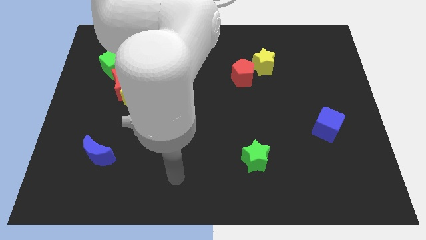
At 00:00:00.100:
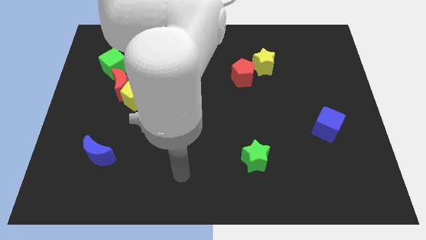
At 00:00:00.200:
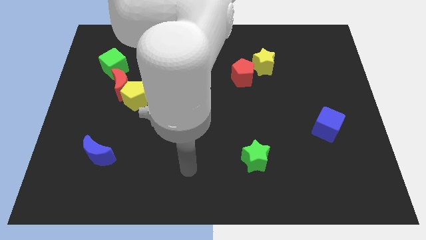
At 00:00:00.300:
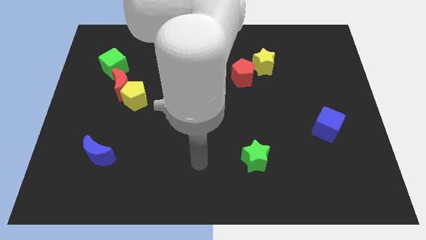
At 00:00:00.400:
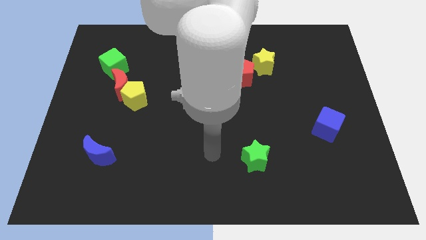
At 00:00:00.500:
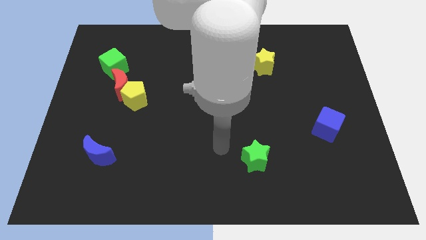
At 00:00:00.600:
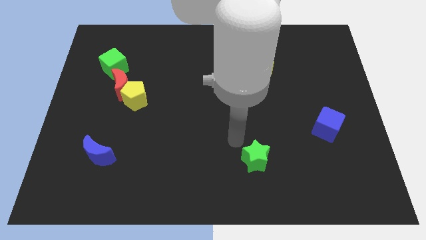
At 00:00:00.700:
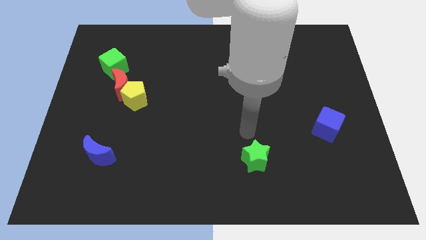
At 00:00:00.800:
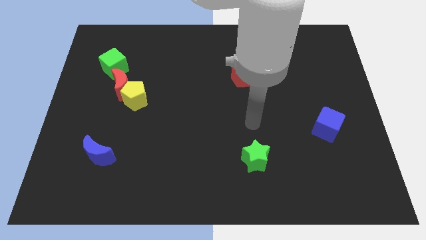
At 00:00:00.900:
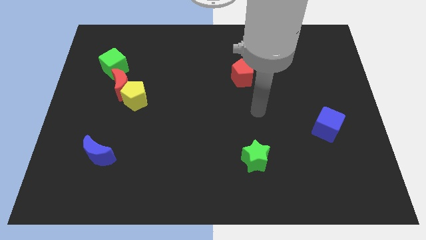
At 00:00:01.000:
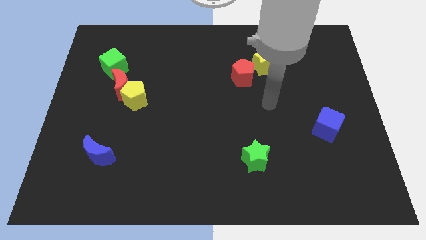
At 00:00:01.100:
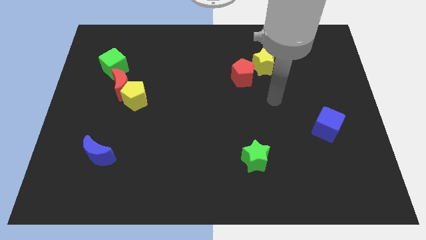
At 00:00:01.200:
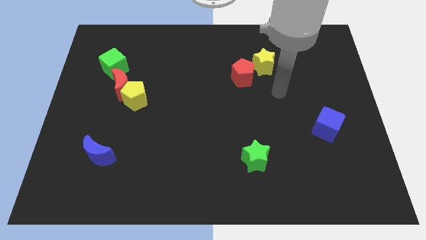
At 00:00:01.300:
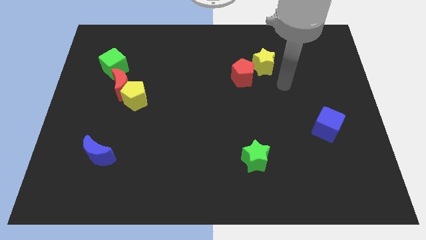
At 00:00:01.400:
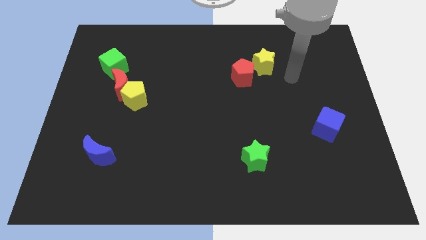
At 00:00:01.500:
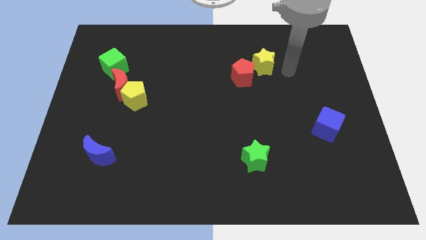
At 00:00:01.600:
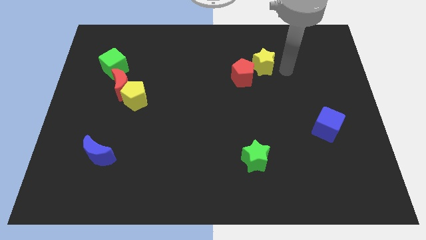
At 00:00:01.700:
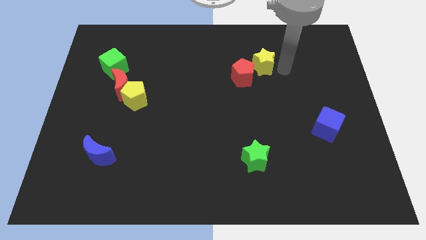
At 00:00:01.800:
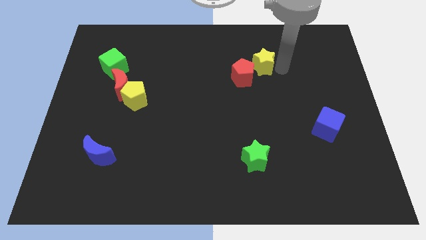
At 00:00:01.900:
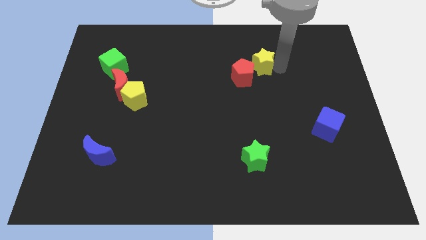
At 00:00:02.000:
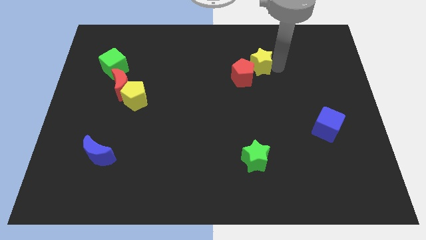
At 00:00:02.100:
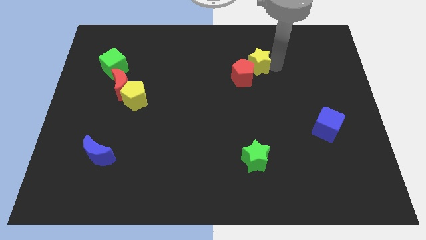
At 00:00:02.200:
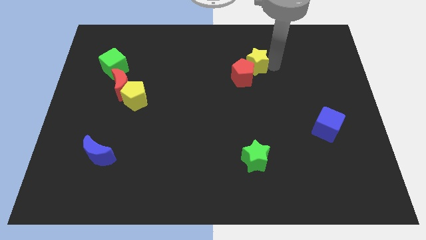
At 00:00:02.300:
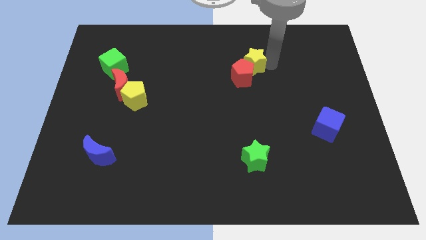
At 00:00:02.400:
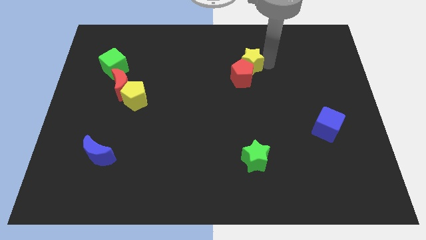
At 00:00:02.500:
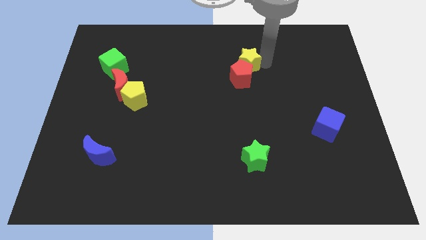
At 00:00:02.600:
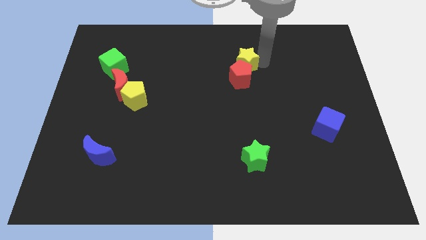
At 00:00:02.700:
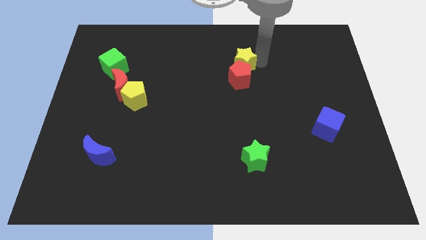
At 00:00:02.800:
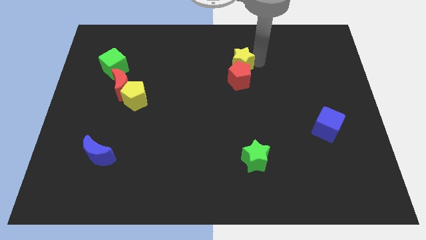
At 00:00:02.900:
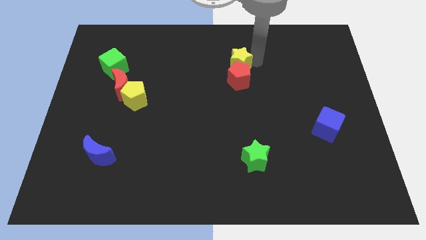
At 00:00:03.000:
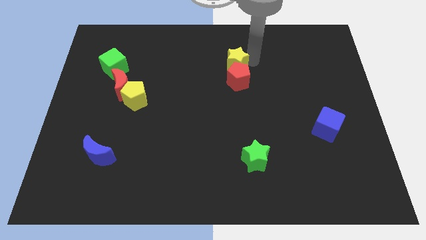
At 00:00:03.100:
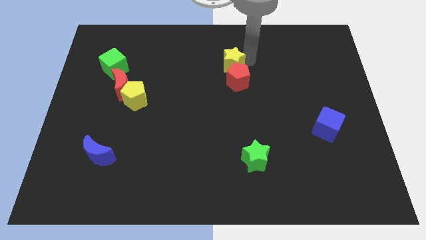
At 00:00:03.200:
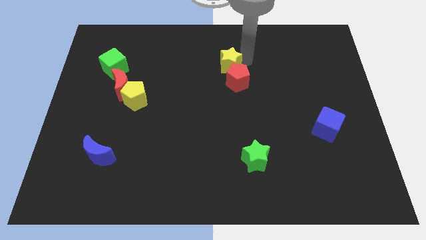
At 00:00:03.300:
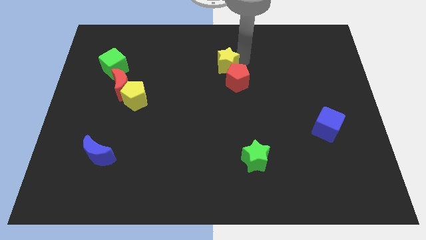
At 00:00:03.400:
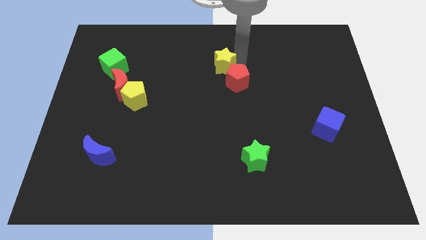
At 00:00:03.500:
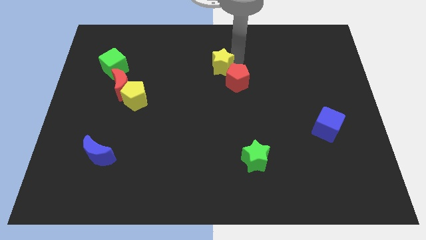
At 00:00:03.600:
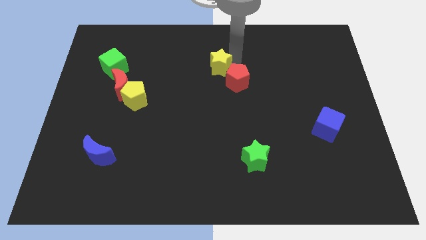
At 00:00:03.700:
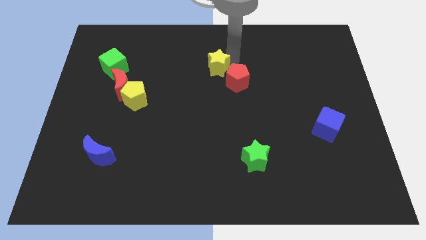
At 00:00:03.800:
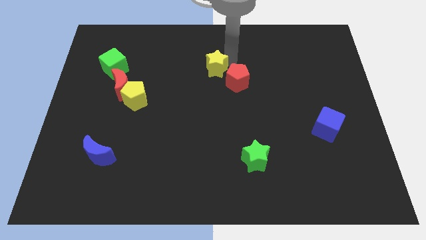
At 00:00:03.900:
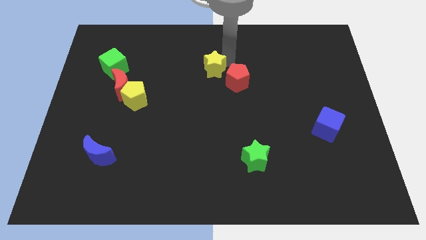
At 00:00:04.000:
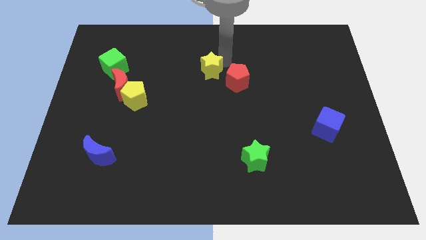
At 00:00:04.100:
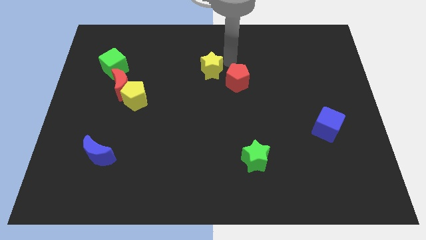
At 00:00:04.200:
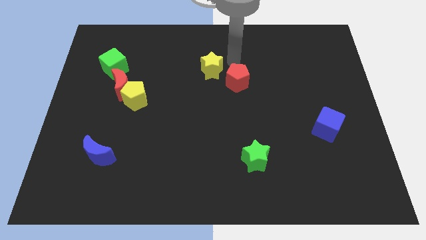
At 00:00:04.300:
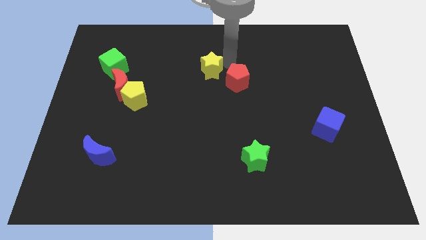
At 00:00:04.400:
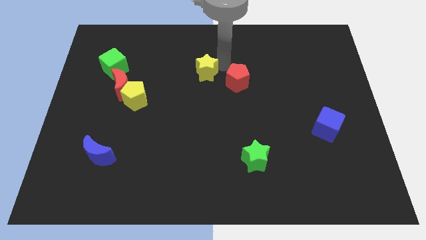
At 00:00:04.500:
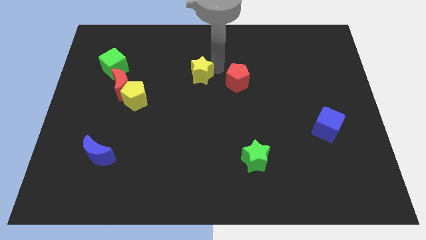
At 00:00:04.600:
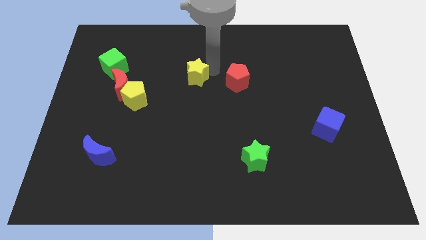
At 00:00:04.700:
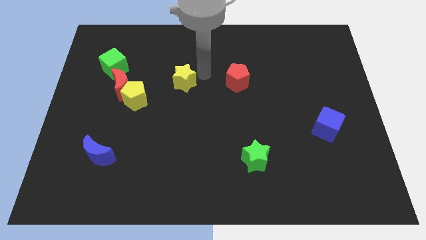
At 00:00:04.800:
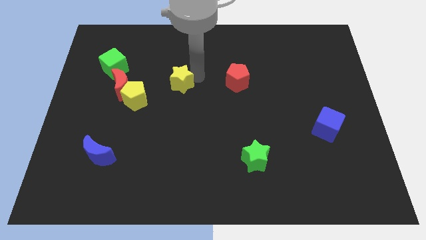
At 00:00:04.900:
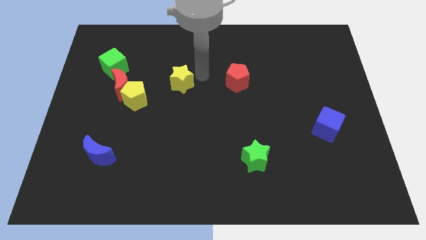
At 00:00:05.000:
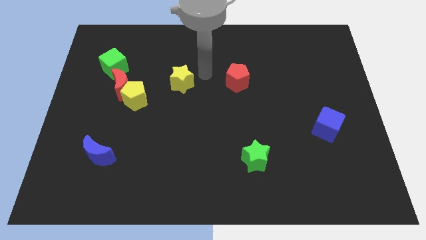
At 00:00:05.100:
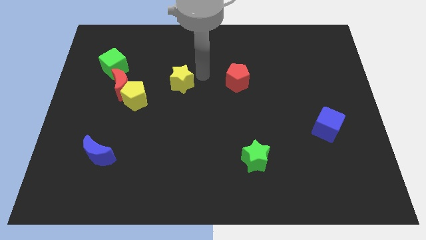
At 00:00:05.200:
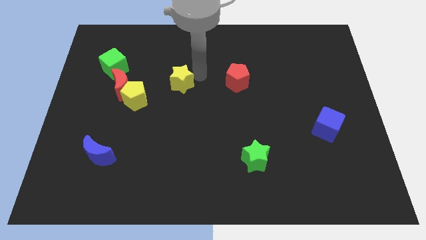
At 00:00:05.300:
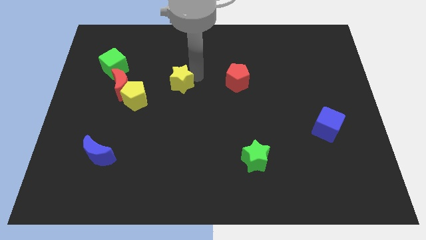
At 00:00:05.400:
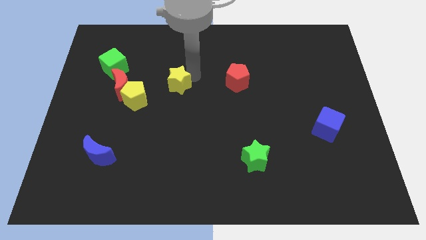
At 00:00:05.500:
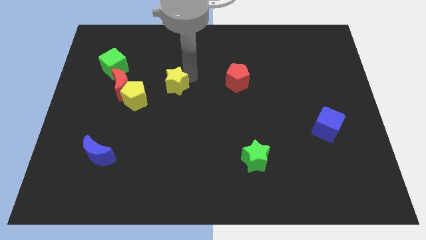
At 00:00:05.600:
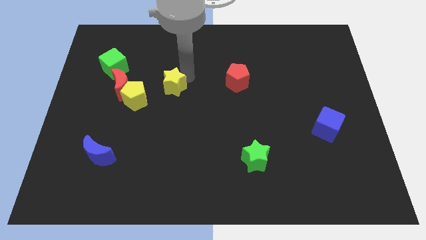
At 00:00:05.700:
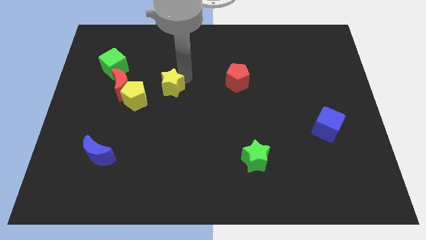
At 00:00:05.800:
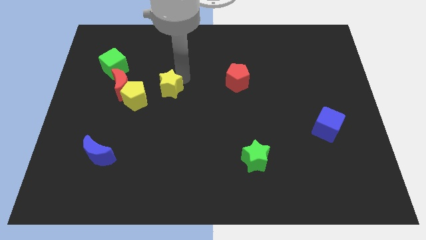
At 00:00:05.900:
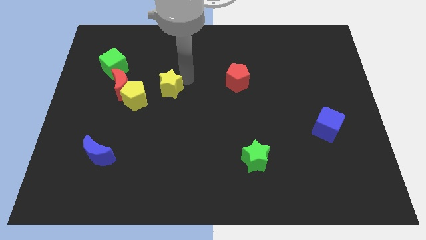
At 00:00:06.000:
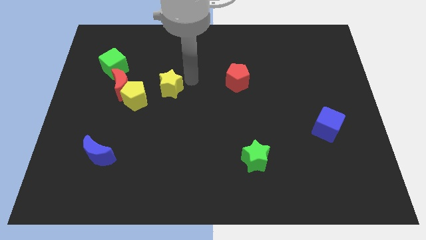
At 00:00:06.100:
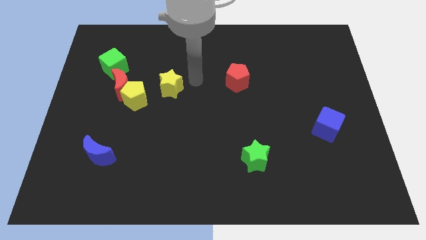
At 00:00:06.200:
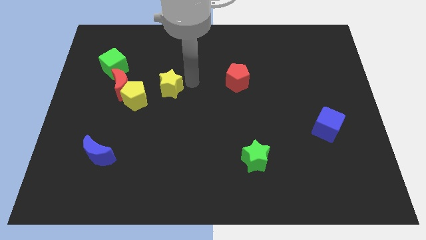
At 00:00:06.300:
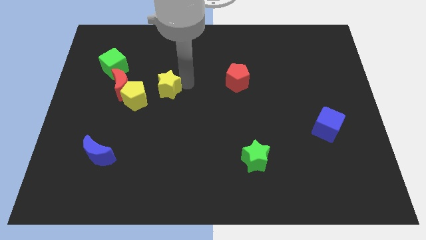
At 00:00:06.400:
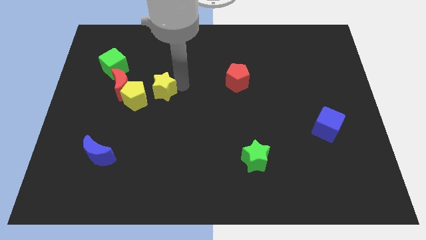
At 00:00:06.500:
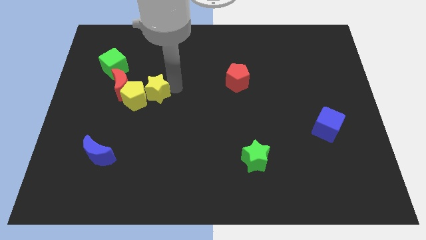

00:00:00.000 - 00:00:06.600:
push the yellow star towards the yellow pentagon
